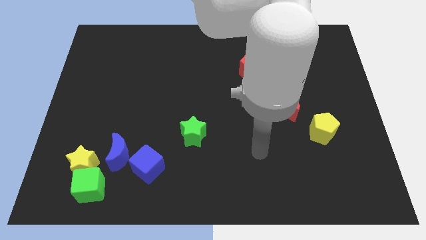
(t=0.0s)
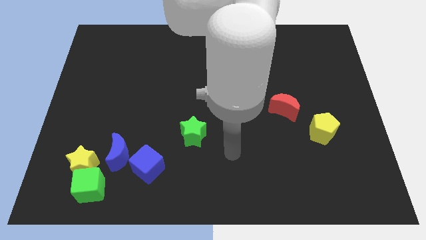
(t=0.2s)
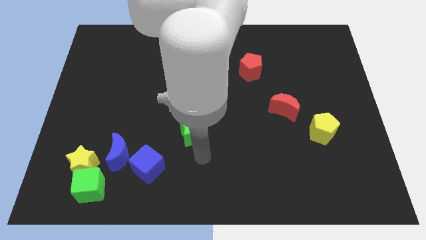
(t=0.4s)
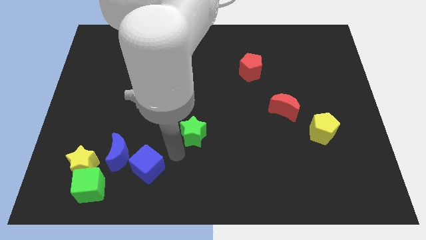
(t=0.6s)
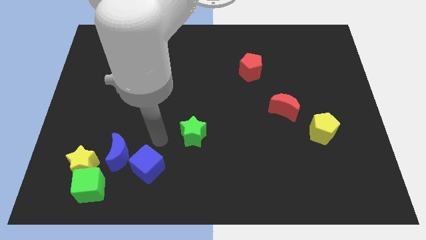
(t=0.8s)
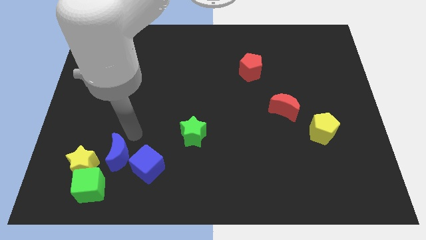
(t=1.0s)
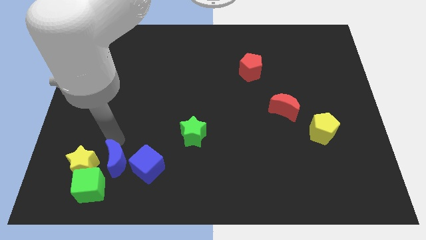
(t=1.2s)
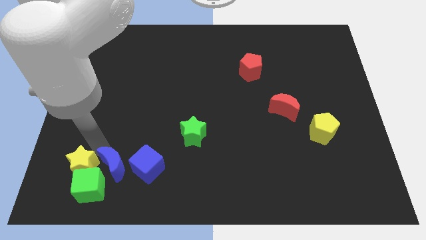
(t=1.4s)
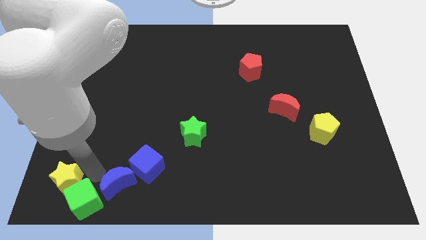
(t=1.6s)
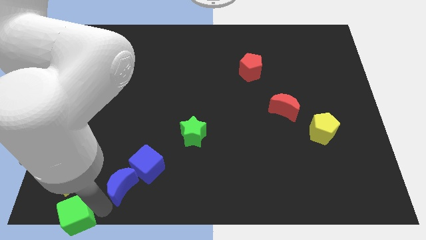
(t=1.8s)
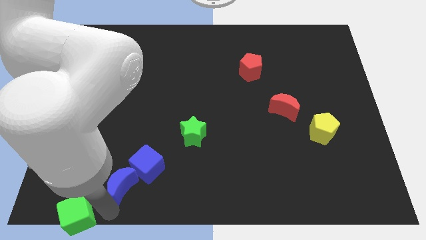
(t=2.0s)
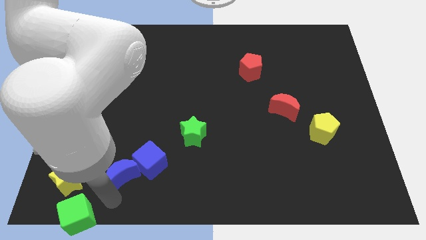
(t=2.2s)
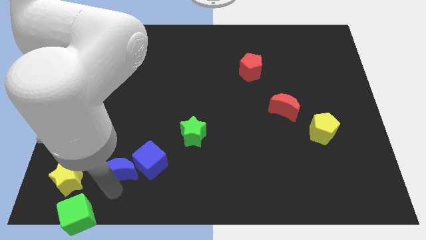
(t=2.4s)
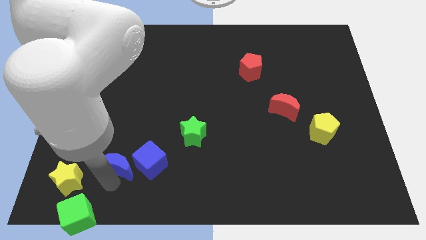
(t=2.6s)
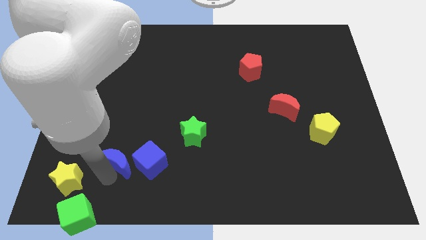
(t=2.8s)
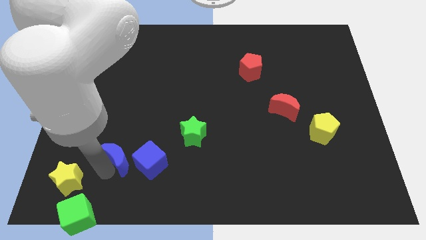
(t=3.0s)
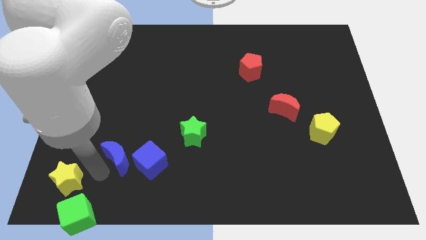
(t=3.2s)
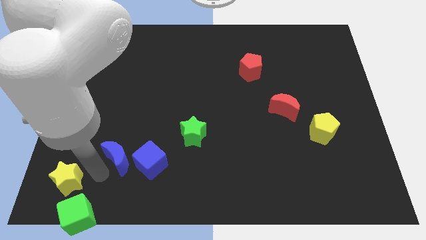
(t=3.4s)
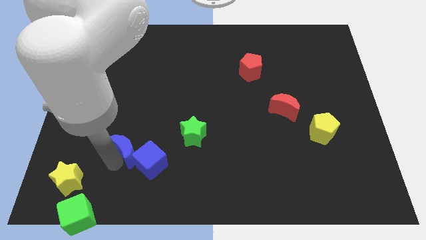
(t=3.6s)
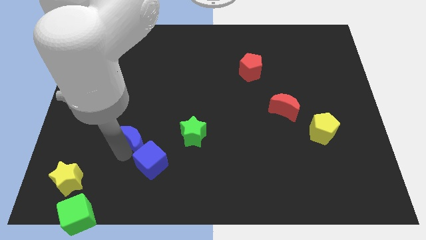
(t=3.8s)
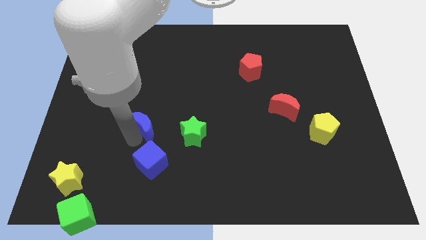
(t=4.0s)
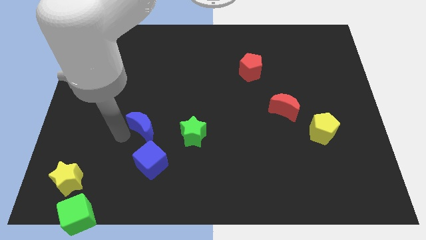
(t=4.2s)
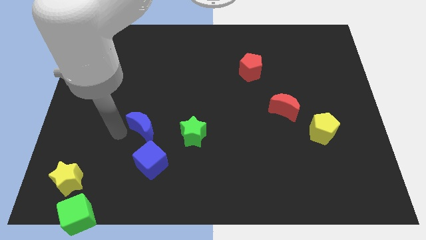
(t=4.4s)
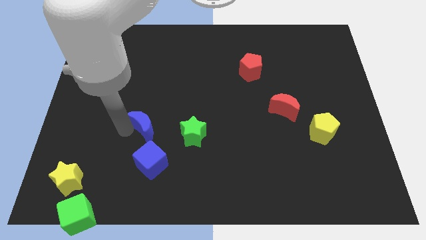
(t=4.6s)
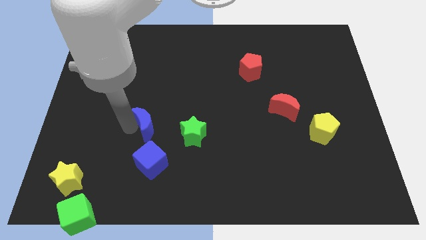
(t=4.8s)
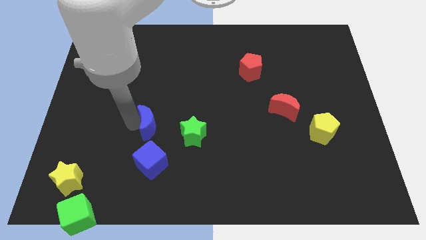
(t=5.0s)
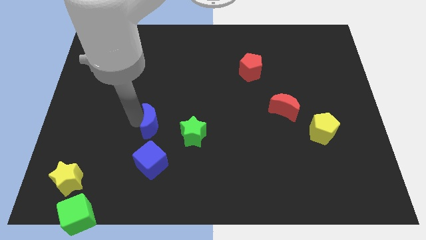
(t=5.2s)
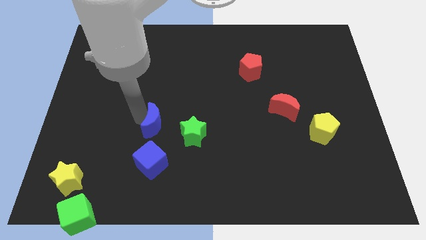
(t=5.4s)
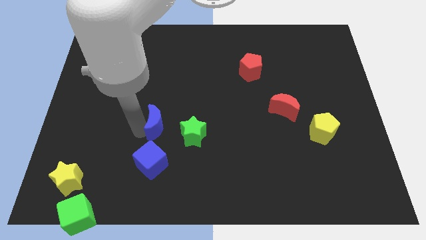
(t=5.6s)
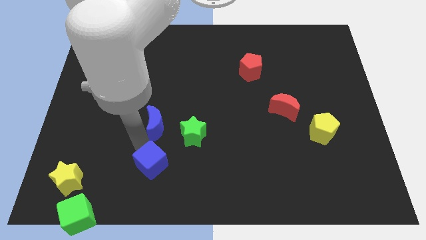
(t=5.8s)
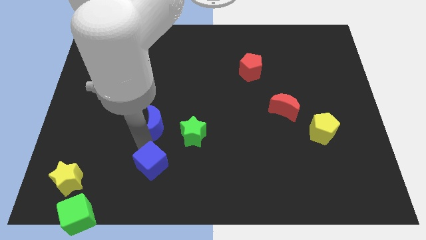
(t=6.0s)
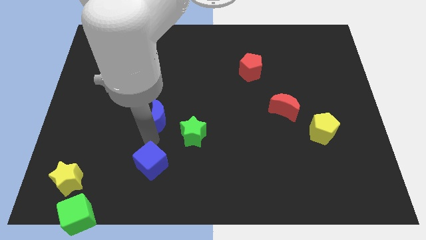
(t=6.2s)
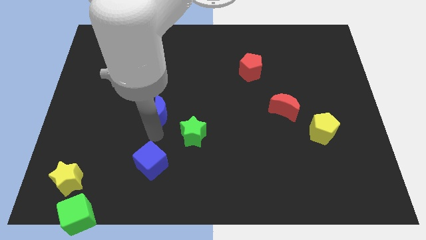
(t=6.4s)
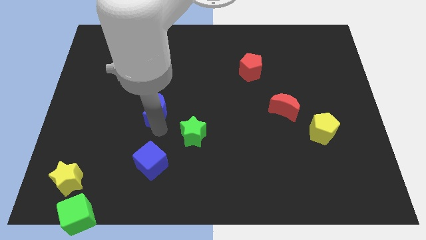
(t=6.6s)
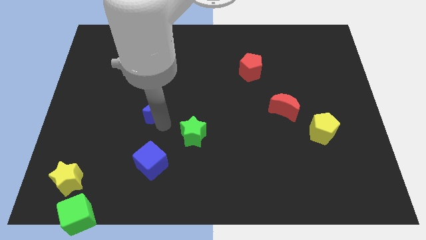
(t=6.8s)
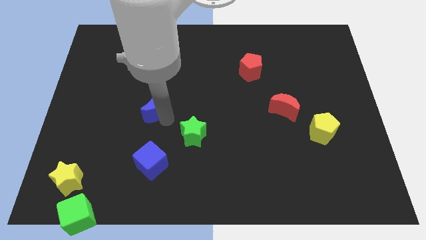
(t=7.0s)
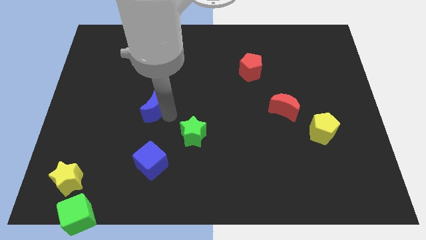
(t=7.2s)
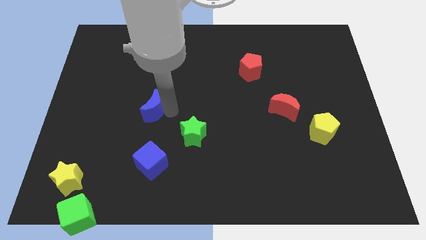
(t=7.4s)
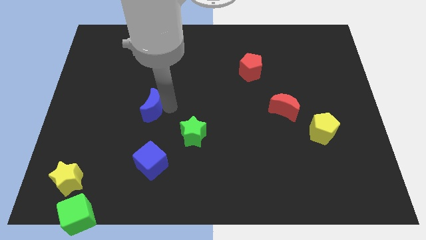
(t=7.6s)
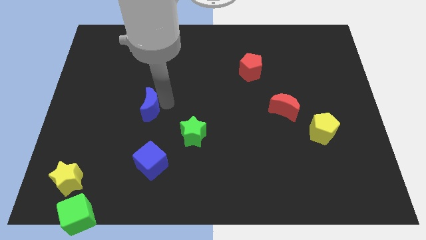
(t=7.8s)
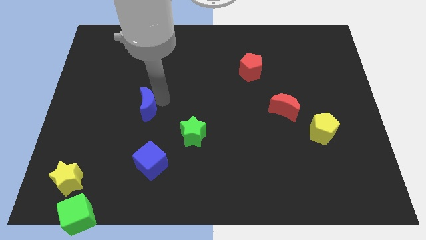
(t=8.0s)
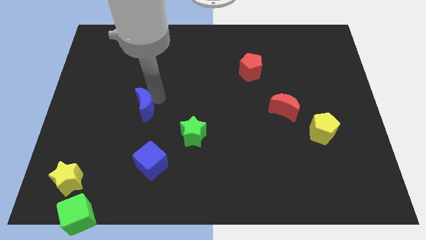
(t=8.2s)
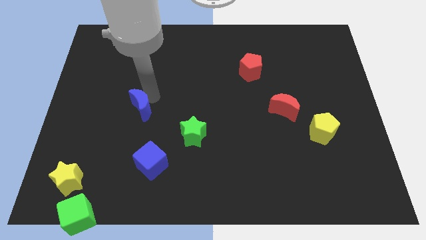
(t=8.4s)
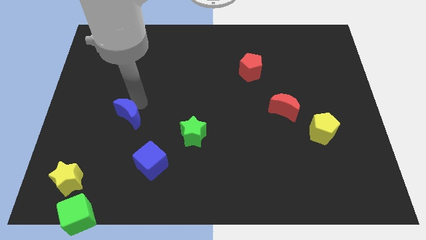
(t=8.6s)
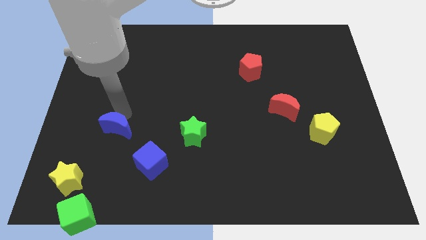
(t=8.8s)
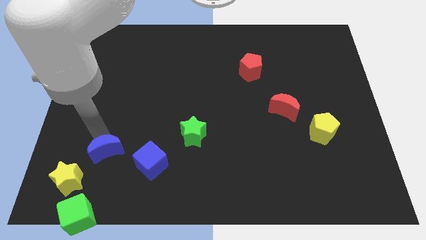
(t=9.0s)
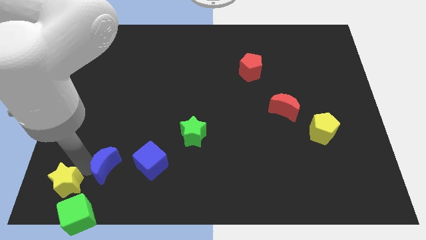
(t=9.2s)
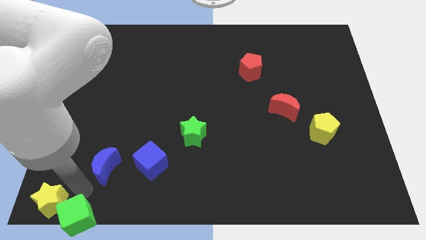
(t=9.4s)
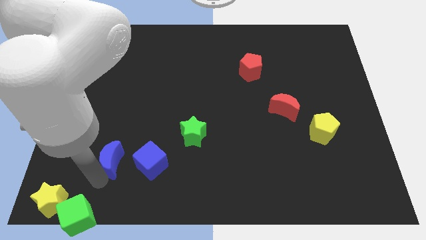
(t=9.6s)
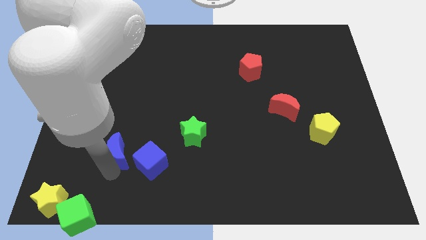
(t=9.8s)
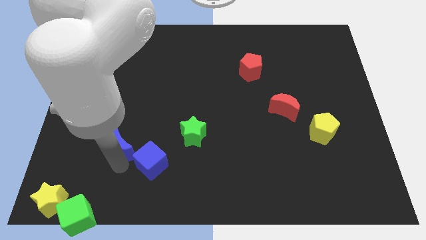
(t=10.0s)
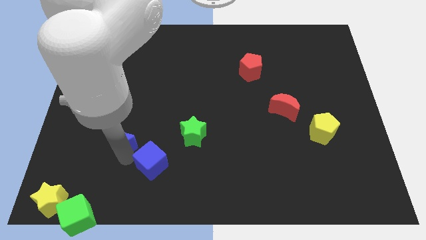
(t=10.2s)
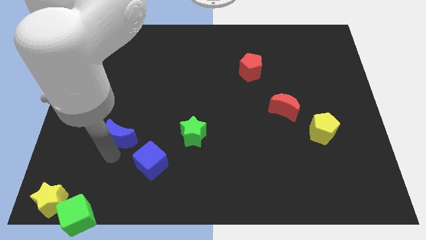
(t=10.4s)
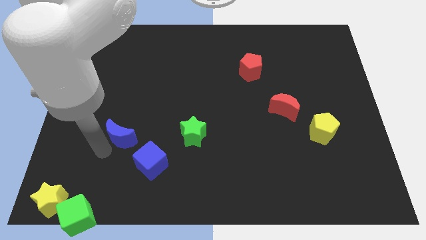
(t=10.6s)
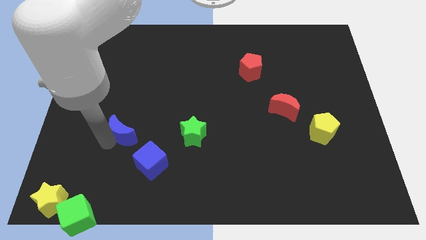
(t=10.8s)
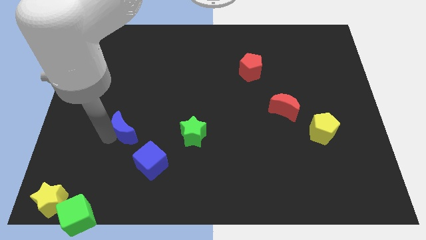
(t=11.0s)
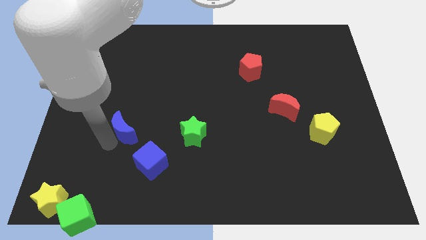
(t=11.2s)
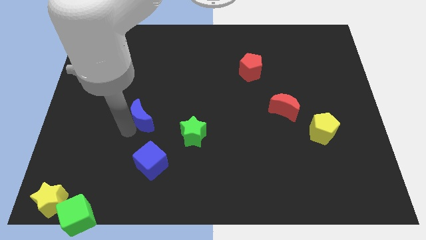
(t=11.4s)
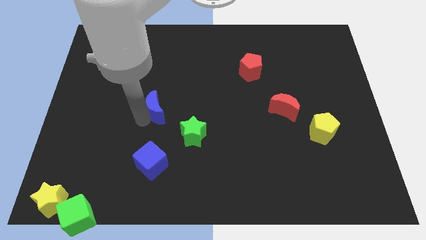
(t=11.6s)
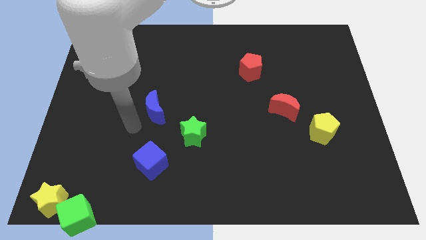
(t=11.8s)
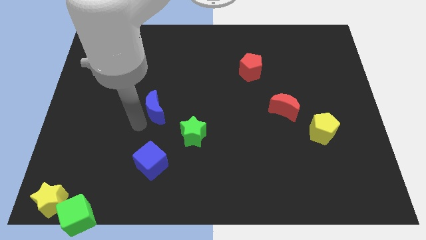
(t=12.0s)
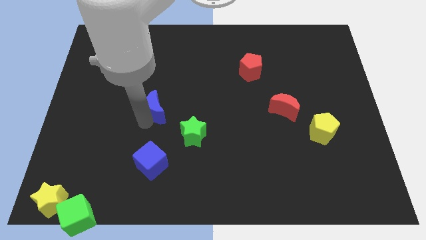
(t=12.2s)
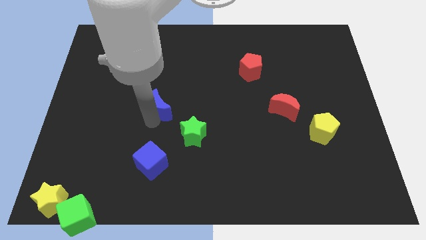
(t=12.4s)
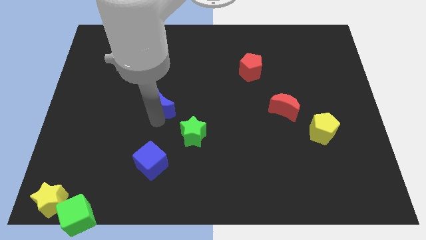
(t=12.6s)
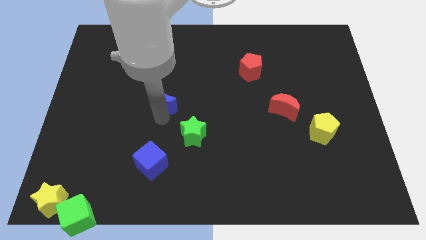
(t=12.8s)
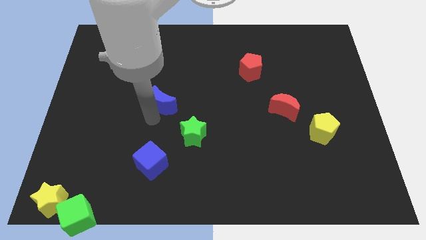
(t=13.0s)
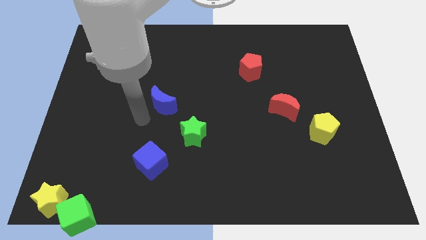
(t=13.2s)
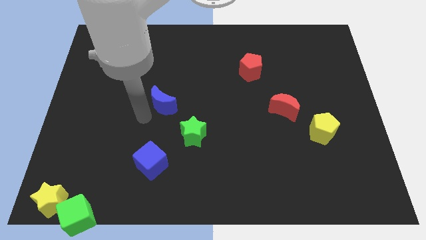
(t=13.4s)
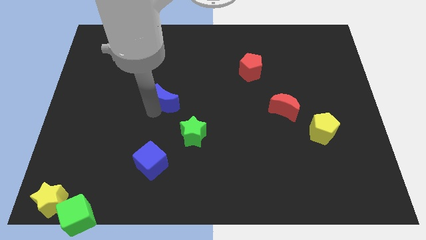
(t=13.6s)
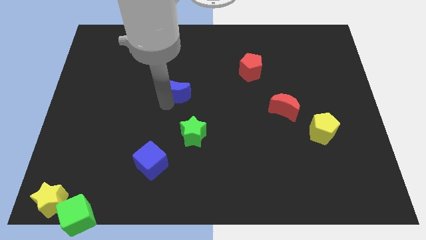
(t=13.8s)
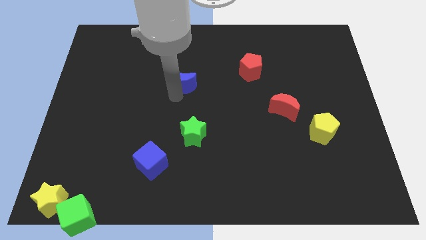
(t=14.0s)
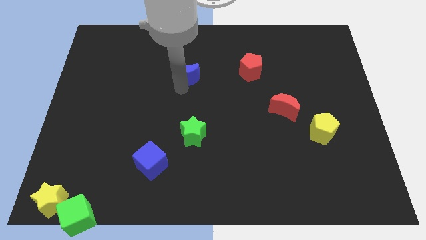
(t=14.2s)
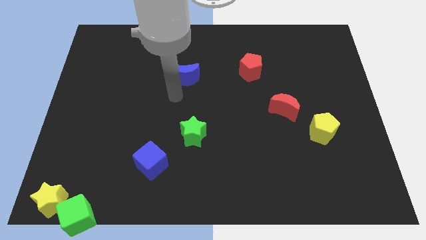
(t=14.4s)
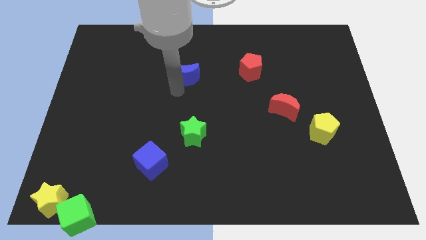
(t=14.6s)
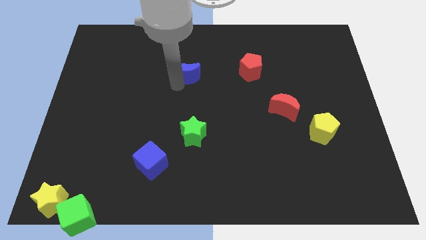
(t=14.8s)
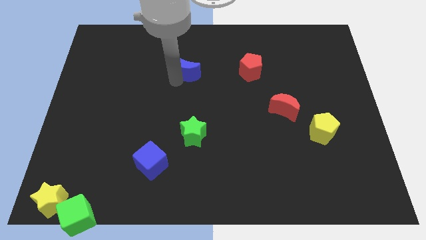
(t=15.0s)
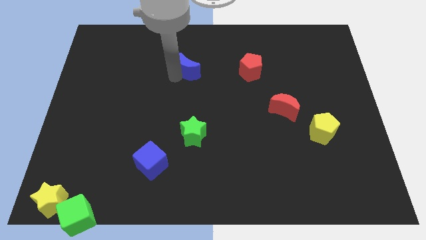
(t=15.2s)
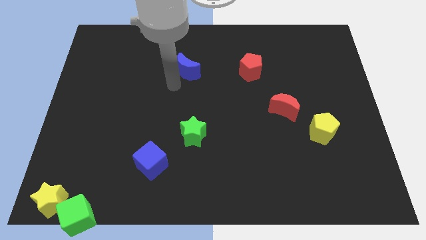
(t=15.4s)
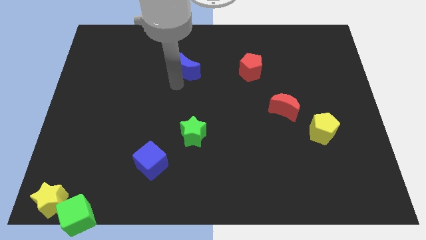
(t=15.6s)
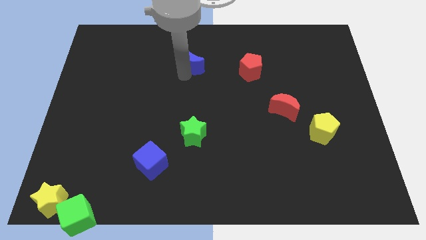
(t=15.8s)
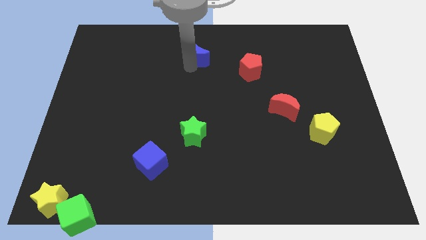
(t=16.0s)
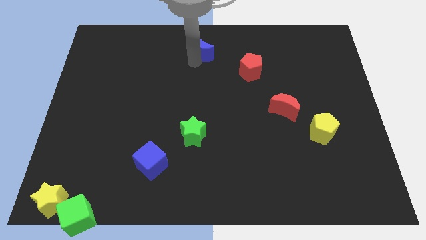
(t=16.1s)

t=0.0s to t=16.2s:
put the blue moon to the towards your base
